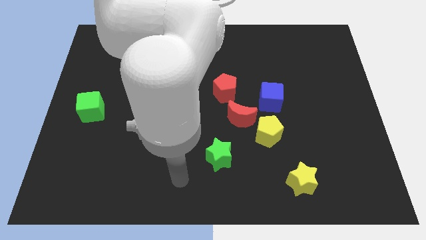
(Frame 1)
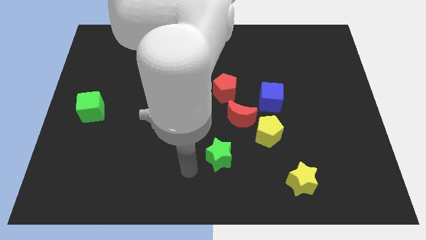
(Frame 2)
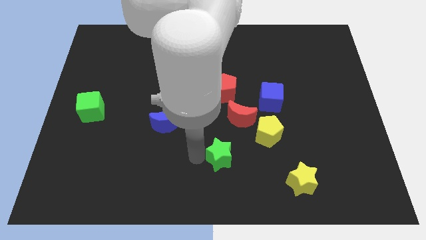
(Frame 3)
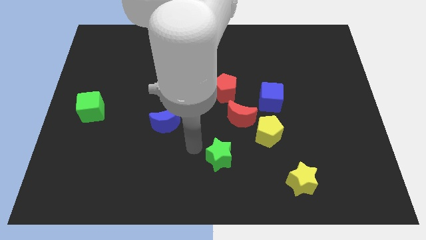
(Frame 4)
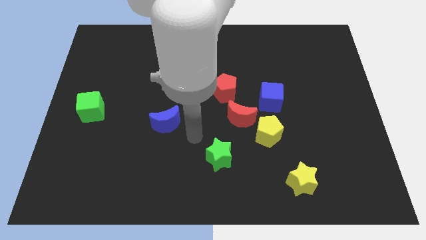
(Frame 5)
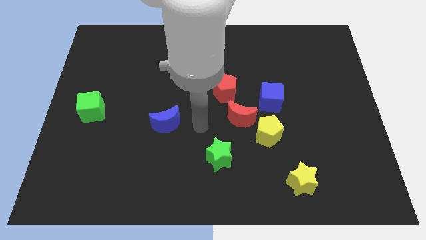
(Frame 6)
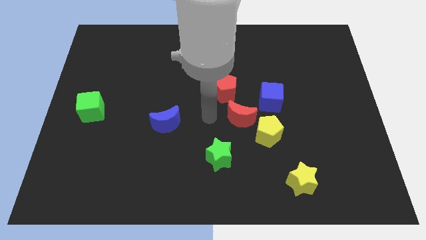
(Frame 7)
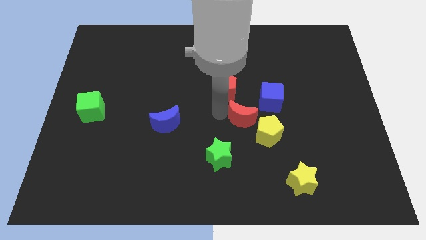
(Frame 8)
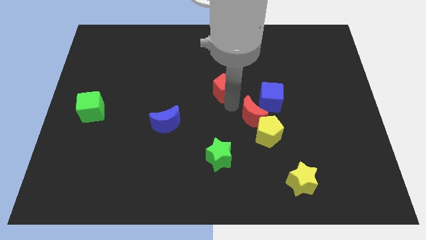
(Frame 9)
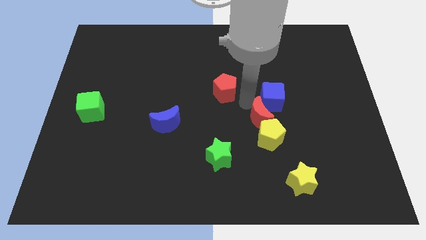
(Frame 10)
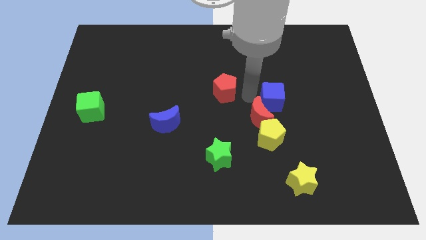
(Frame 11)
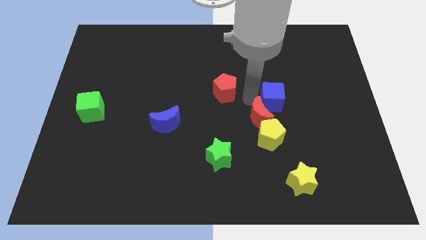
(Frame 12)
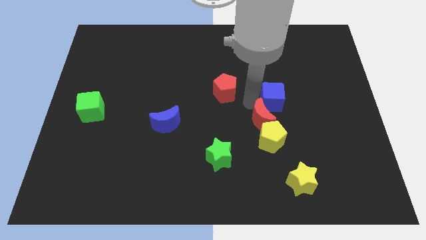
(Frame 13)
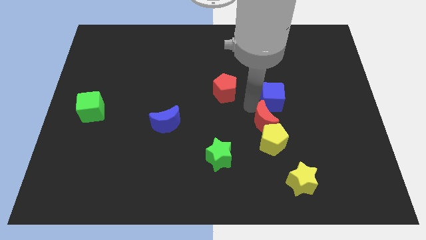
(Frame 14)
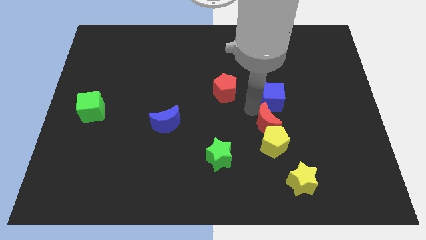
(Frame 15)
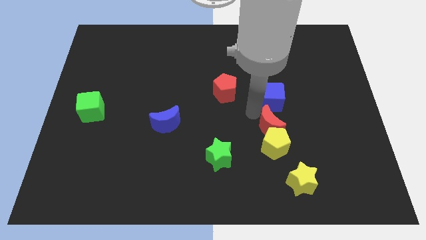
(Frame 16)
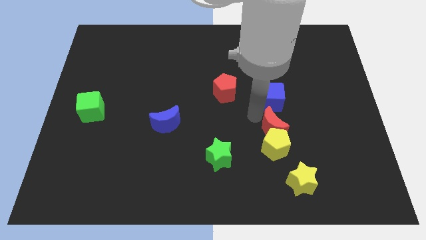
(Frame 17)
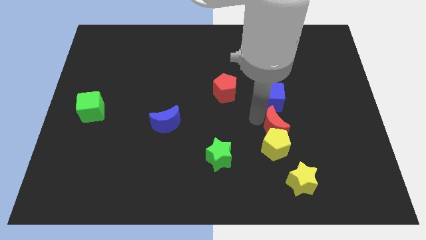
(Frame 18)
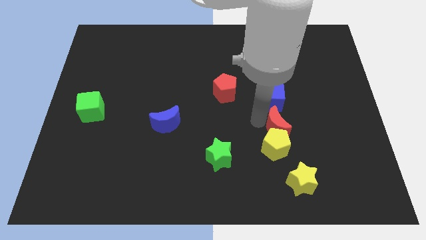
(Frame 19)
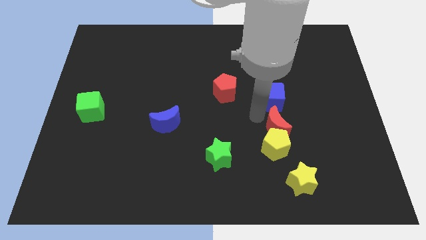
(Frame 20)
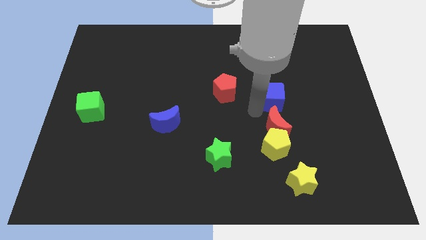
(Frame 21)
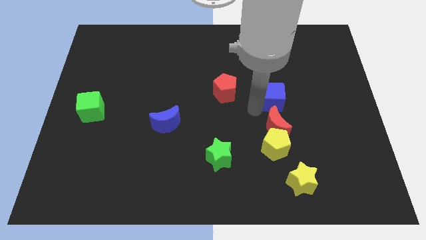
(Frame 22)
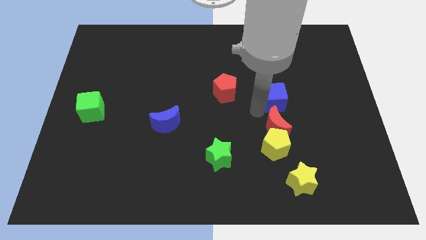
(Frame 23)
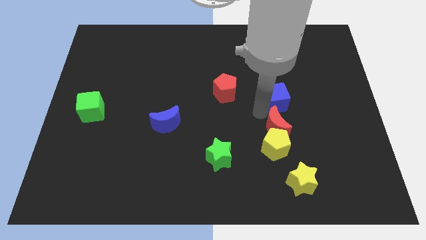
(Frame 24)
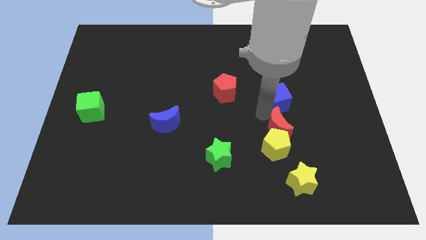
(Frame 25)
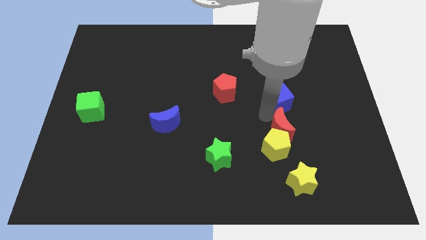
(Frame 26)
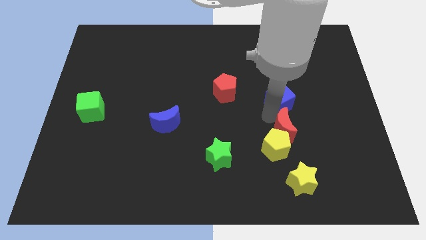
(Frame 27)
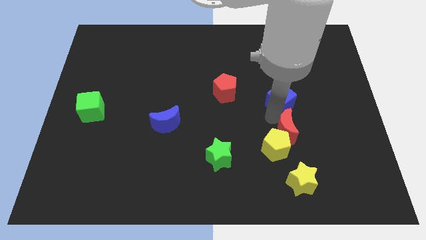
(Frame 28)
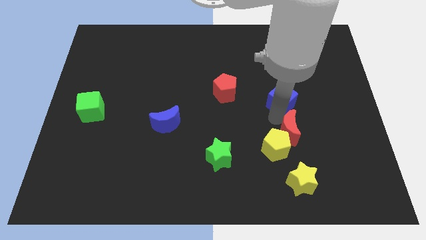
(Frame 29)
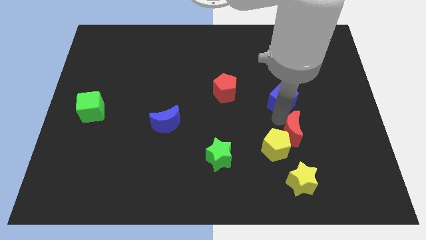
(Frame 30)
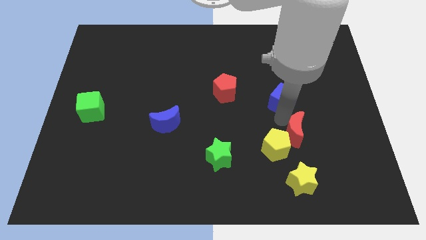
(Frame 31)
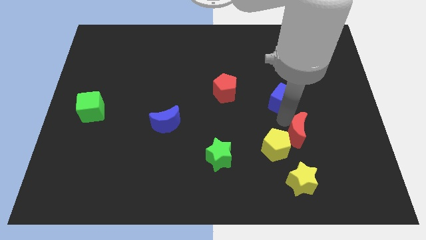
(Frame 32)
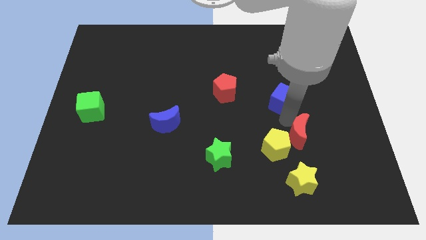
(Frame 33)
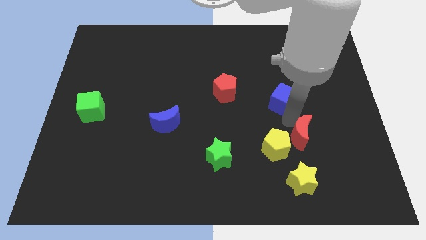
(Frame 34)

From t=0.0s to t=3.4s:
separate the red moon from the group

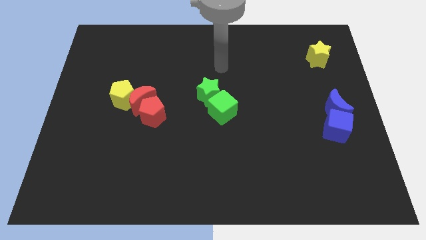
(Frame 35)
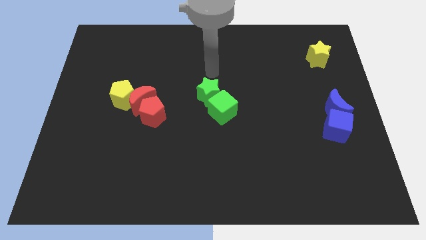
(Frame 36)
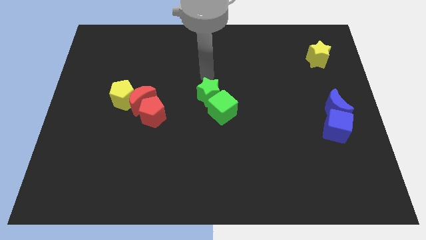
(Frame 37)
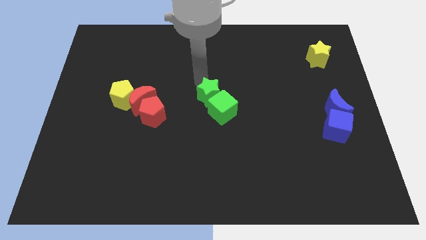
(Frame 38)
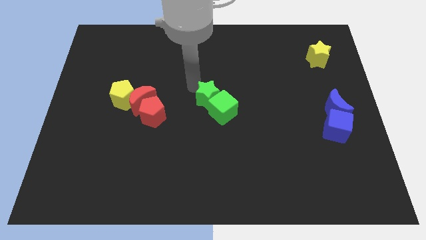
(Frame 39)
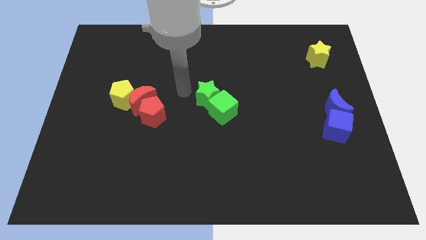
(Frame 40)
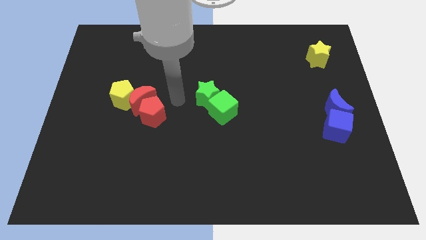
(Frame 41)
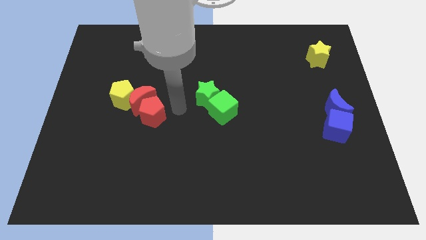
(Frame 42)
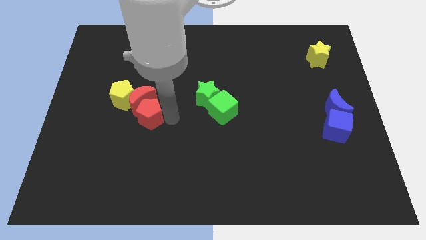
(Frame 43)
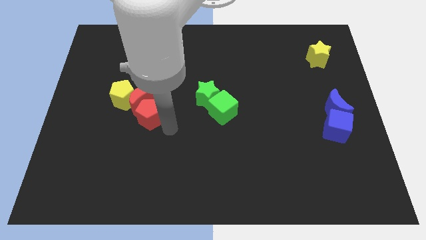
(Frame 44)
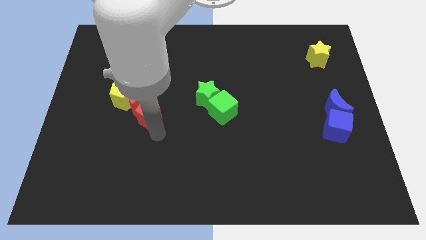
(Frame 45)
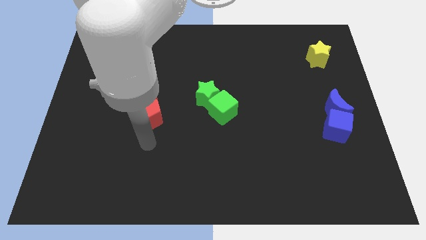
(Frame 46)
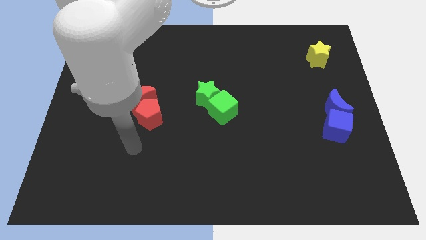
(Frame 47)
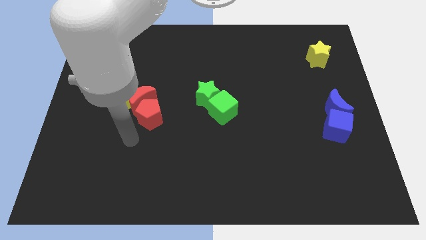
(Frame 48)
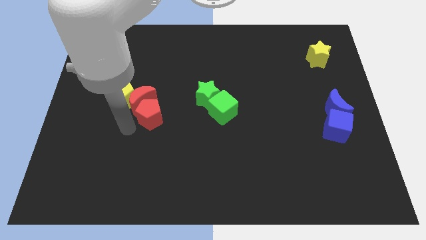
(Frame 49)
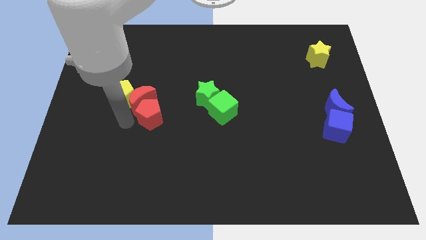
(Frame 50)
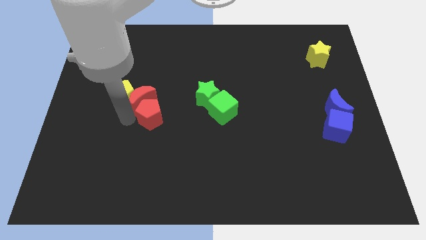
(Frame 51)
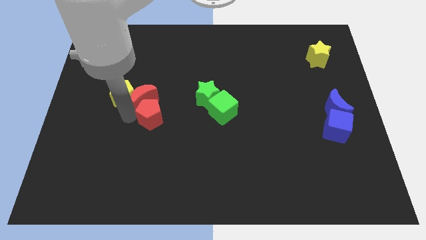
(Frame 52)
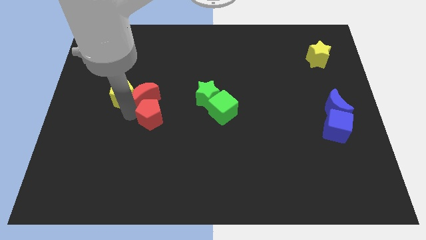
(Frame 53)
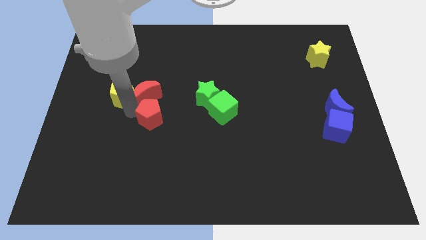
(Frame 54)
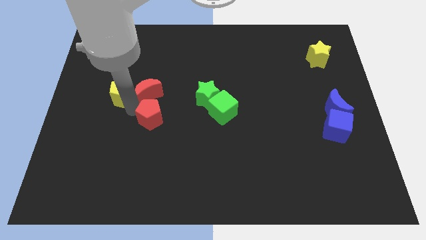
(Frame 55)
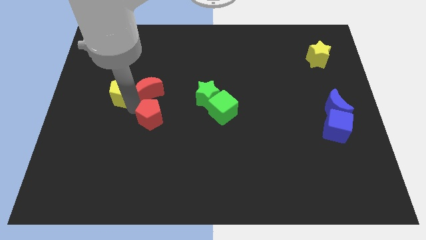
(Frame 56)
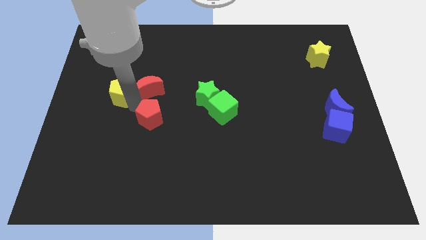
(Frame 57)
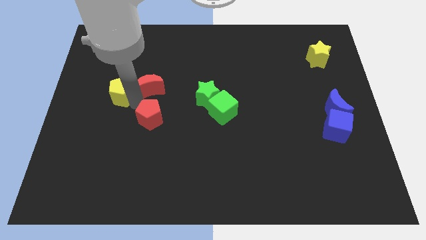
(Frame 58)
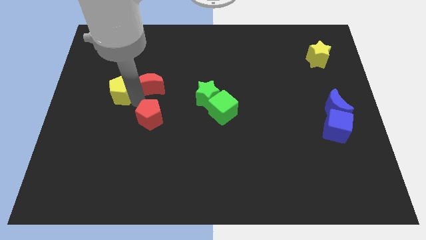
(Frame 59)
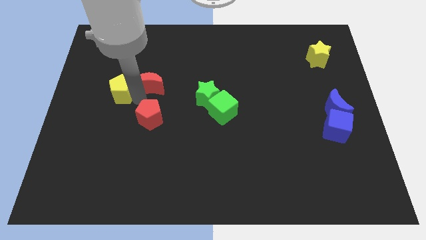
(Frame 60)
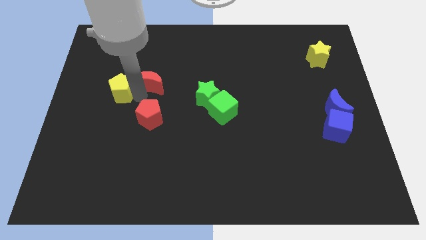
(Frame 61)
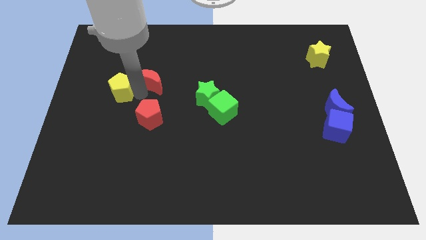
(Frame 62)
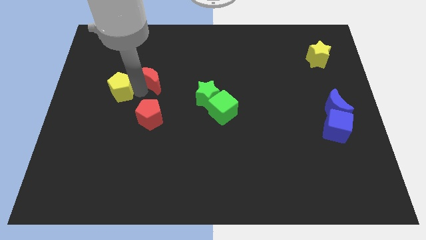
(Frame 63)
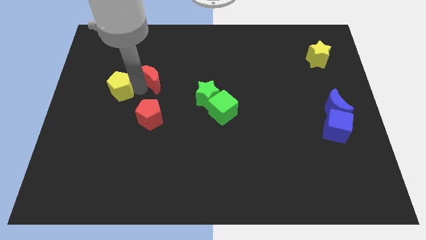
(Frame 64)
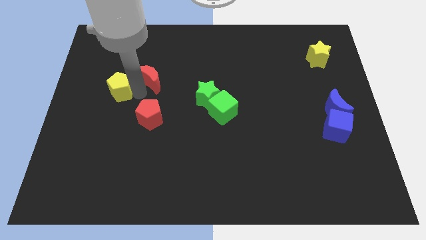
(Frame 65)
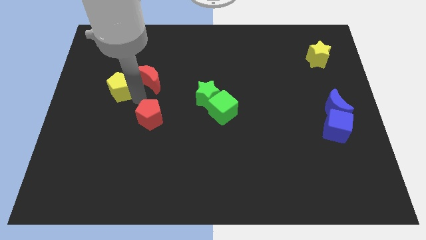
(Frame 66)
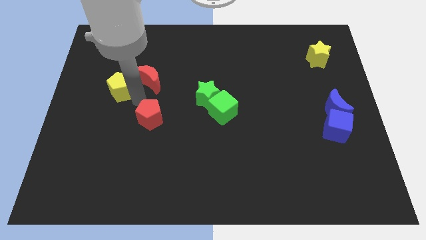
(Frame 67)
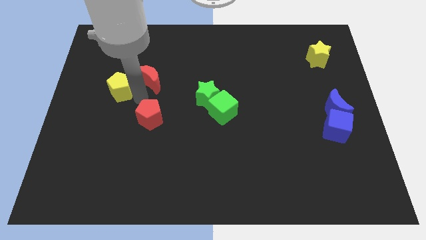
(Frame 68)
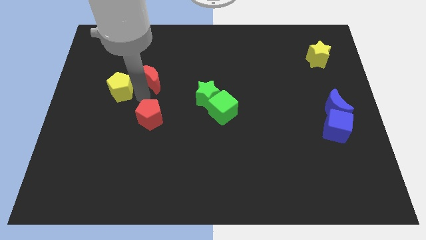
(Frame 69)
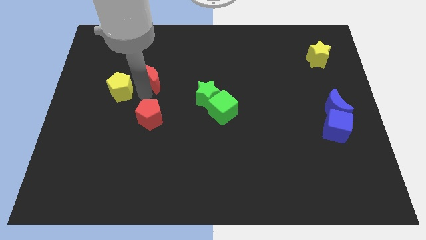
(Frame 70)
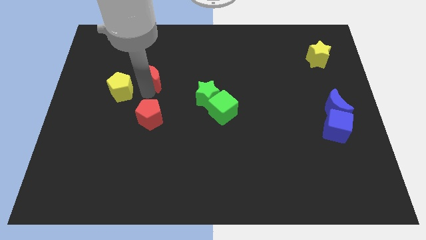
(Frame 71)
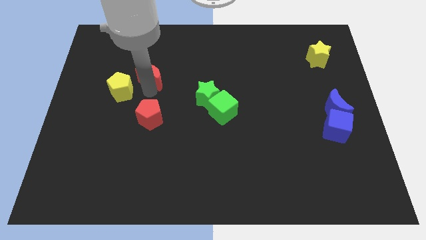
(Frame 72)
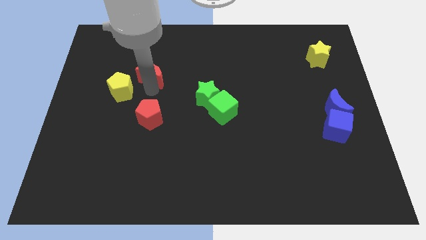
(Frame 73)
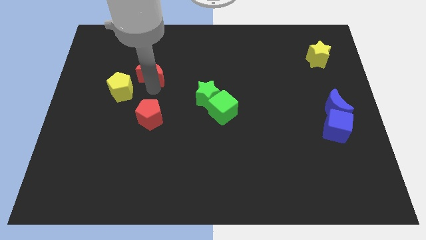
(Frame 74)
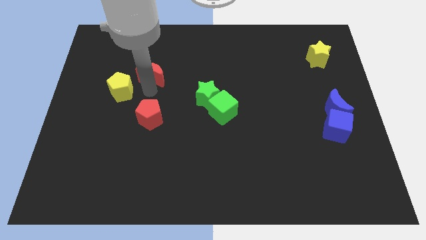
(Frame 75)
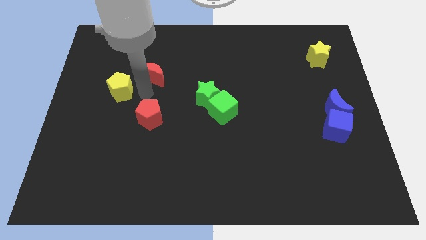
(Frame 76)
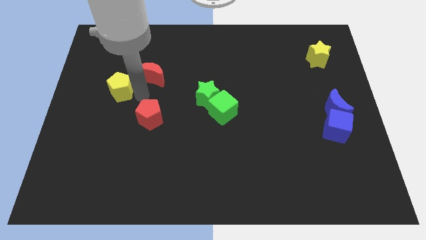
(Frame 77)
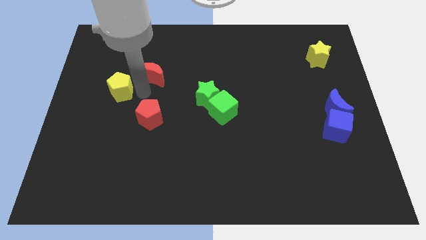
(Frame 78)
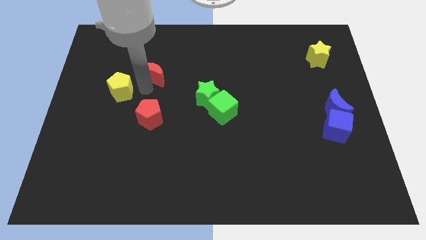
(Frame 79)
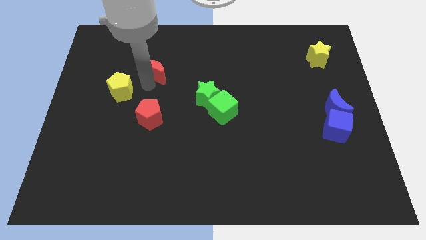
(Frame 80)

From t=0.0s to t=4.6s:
move the red moon away from the yellow pentagon and red pentagon

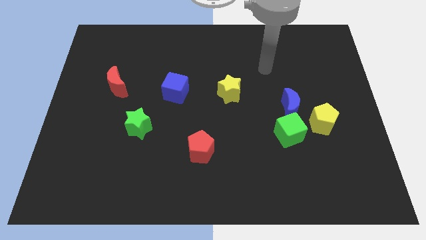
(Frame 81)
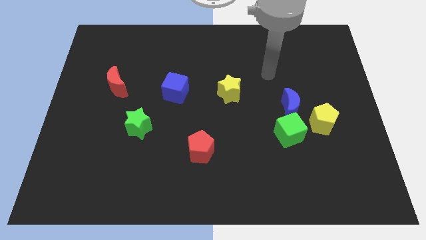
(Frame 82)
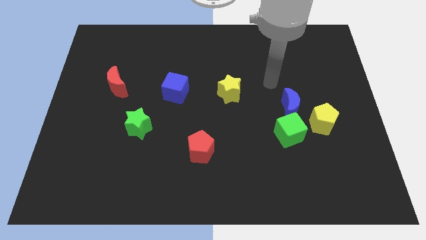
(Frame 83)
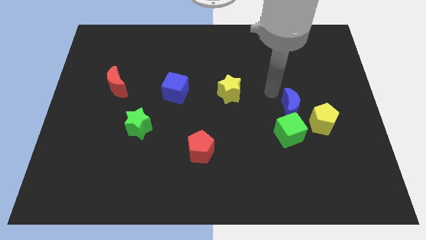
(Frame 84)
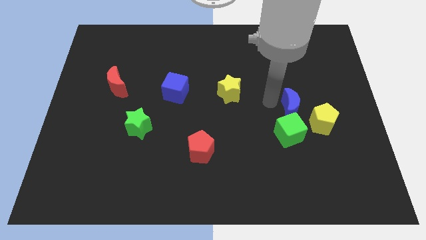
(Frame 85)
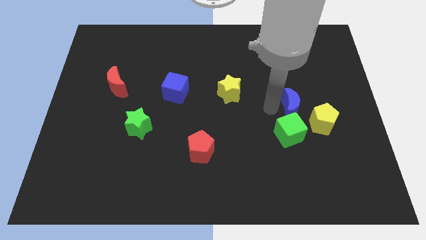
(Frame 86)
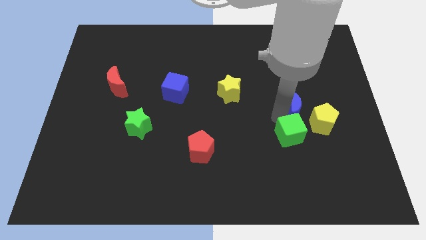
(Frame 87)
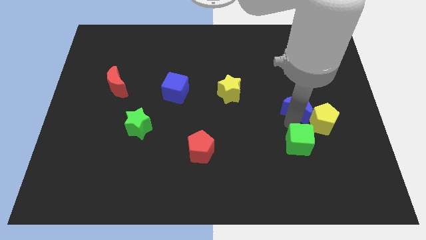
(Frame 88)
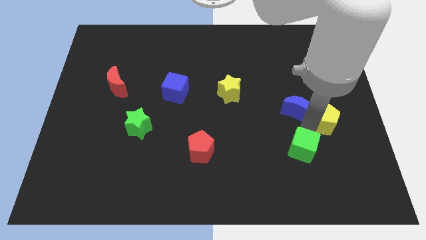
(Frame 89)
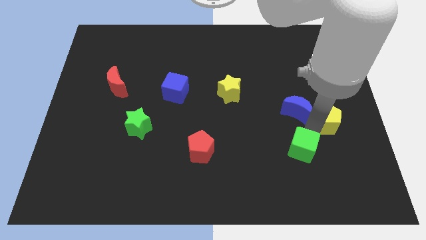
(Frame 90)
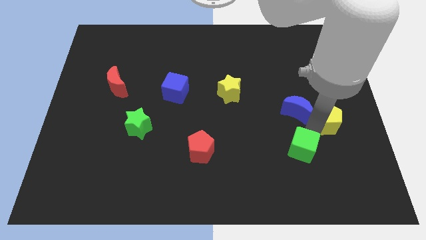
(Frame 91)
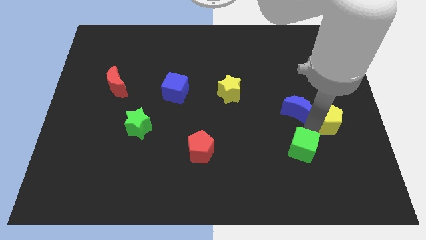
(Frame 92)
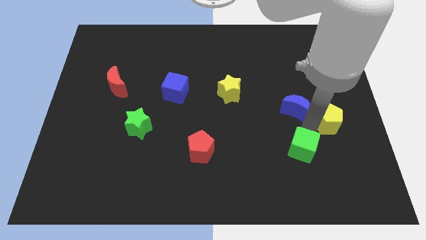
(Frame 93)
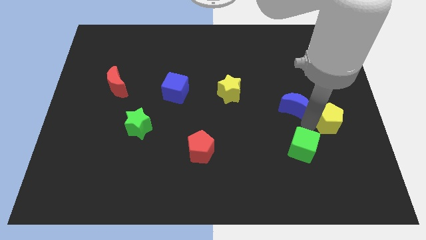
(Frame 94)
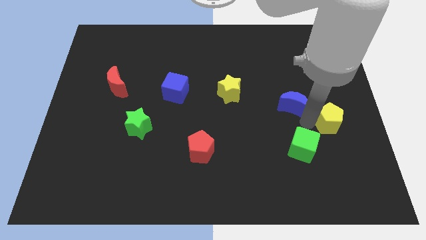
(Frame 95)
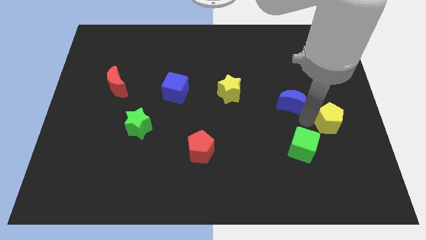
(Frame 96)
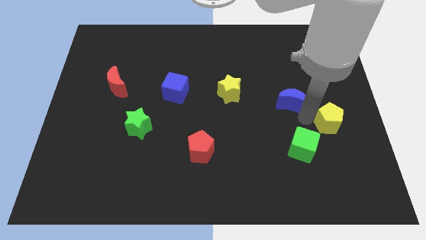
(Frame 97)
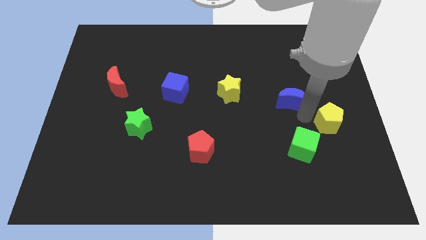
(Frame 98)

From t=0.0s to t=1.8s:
separate the blue moon from the green cube and yellow pentagon
